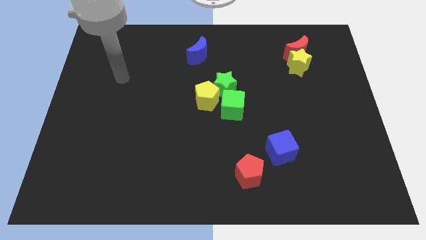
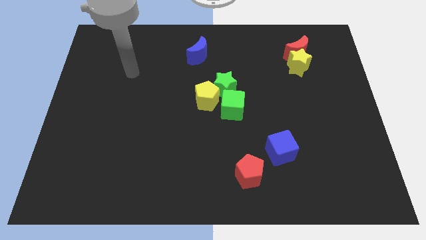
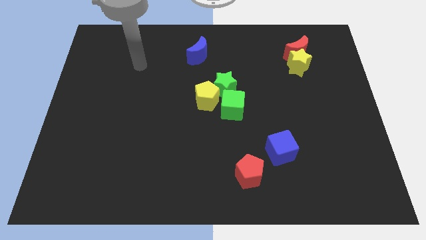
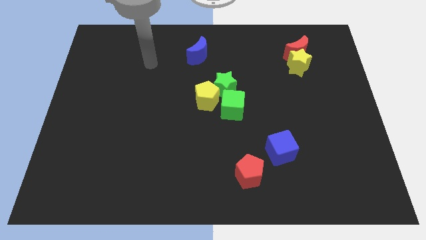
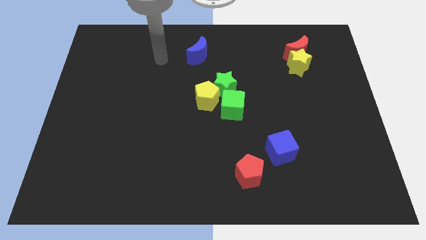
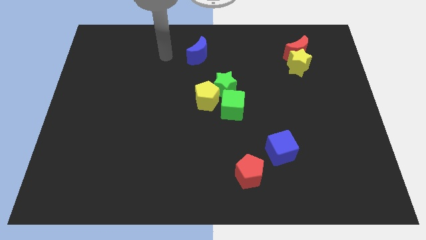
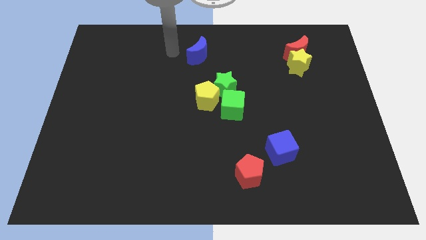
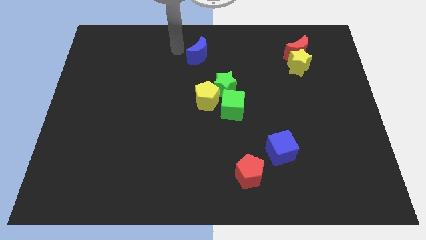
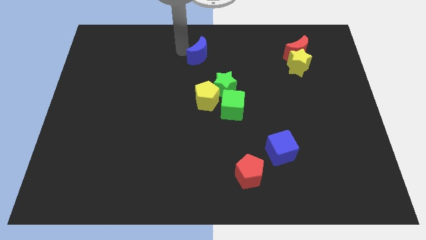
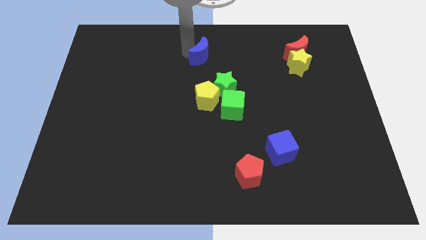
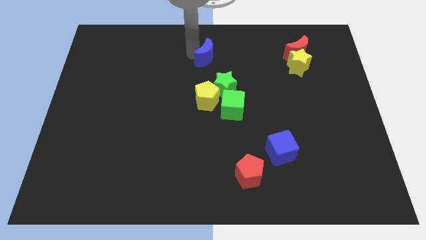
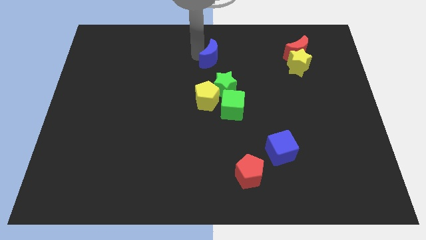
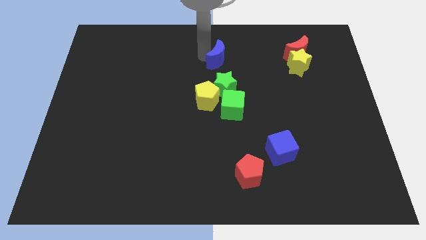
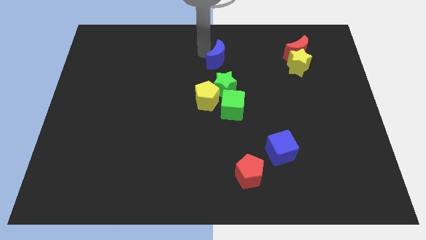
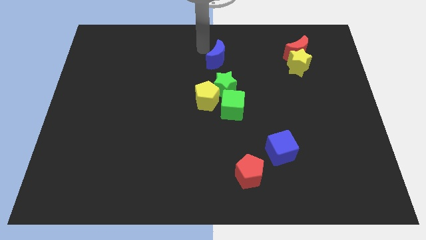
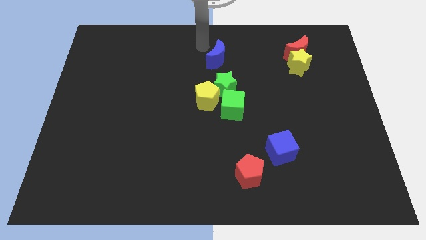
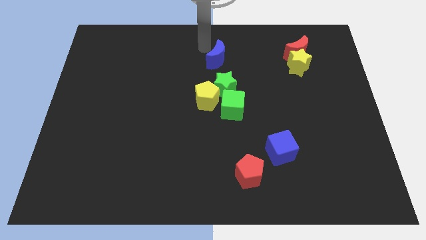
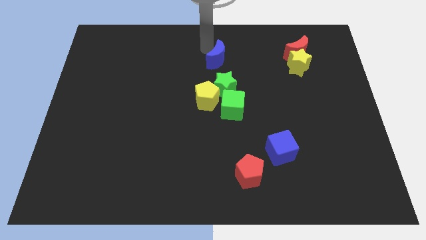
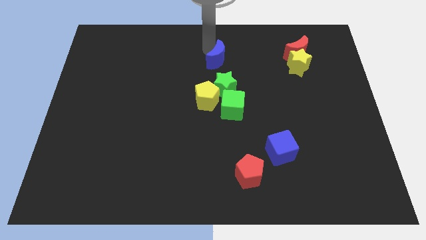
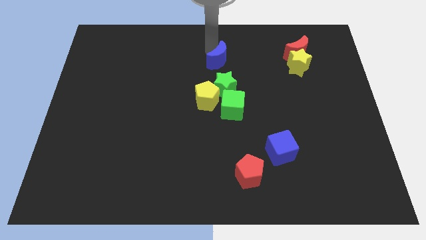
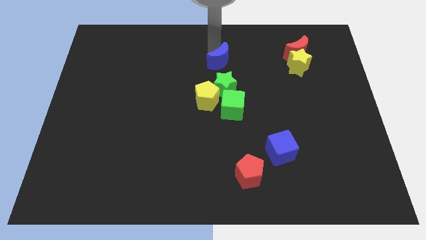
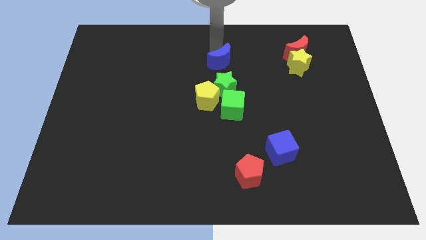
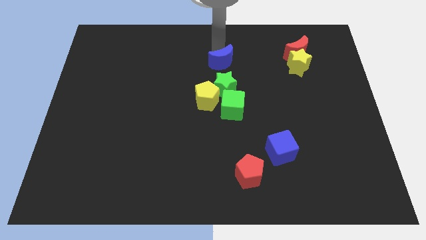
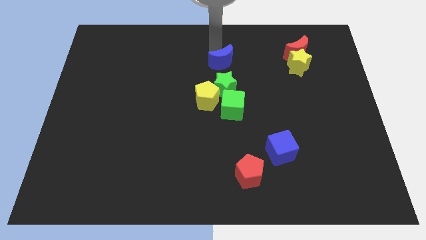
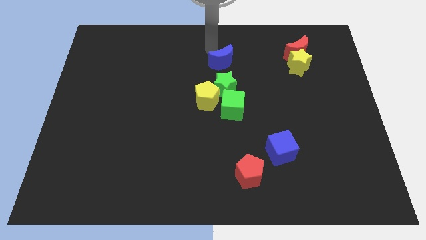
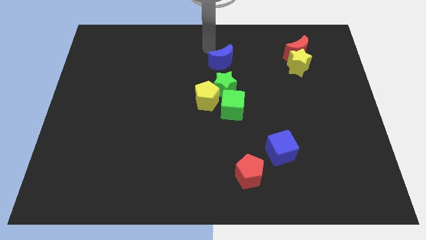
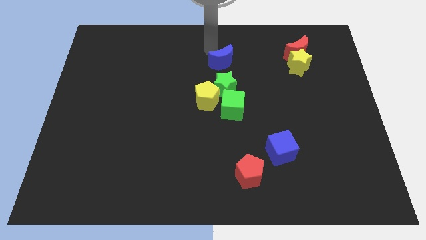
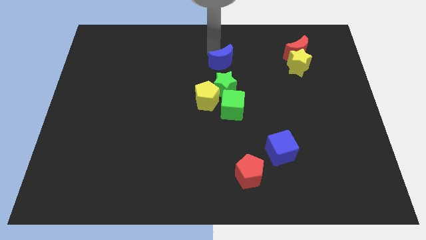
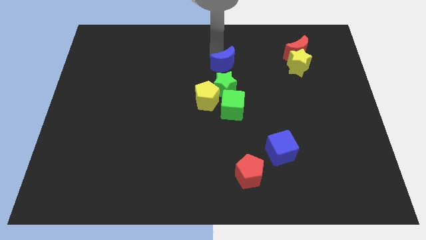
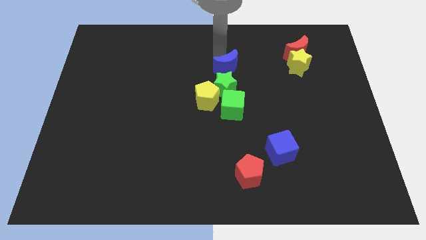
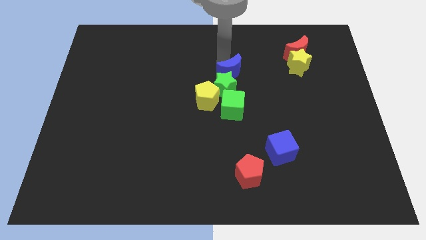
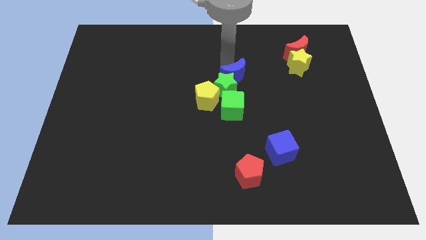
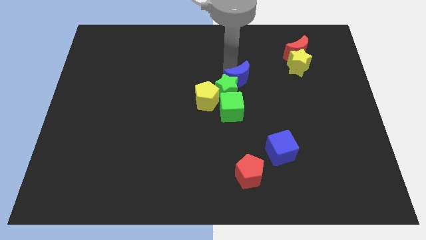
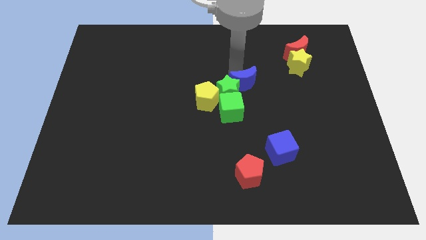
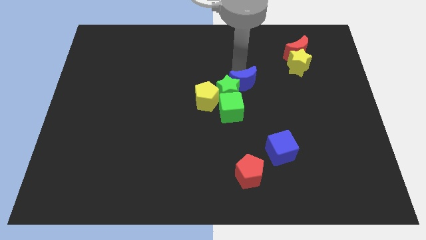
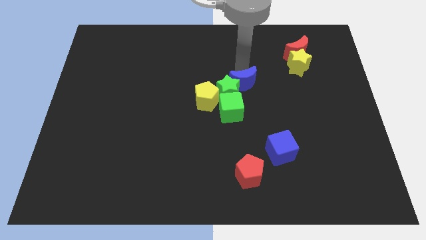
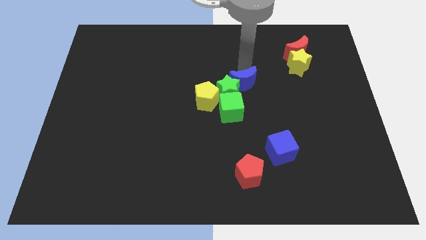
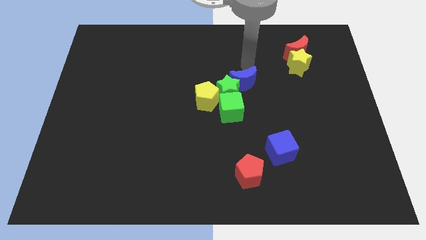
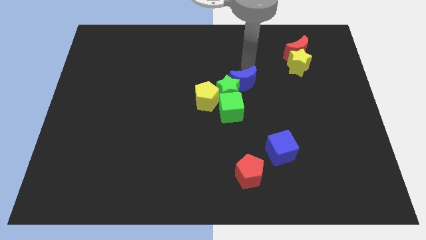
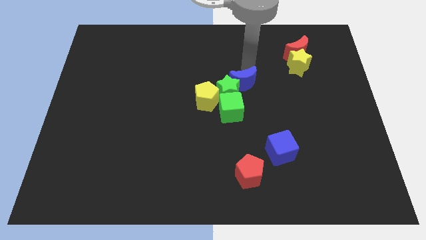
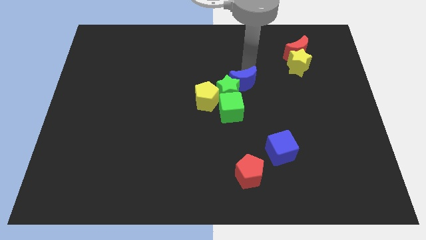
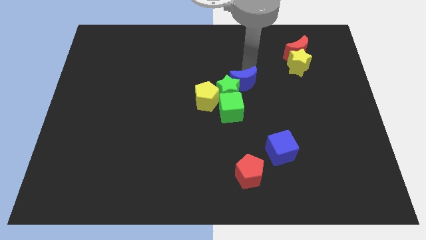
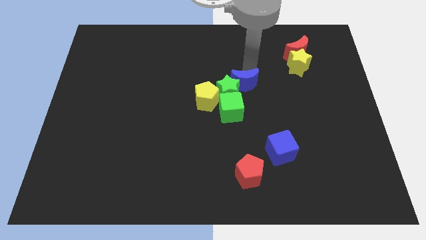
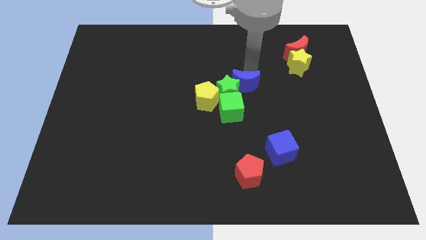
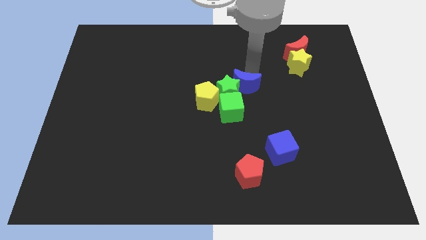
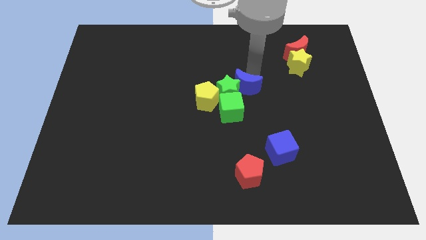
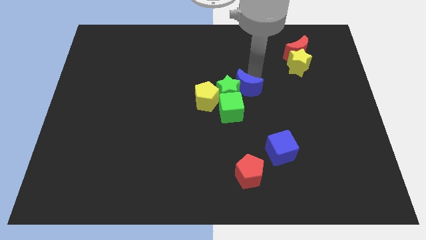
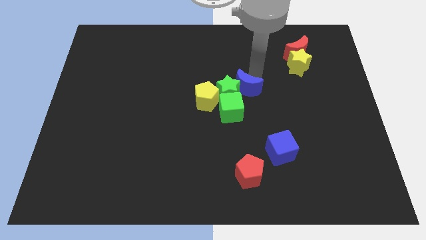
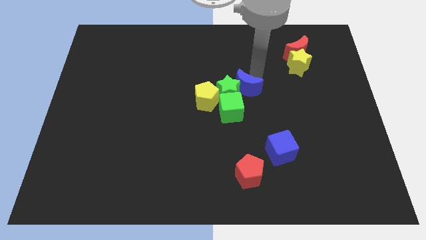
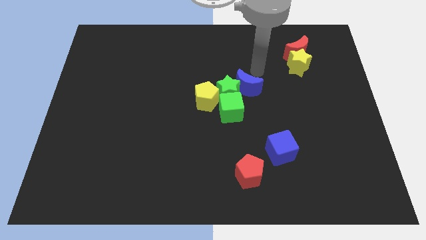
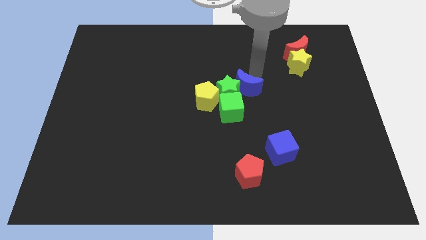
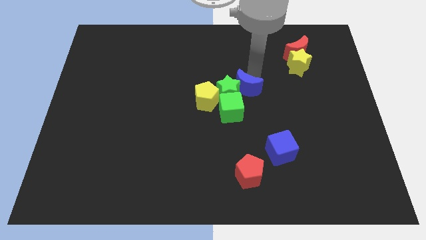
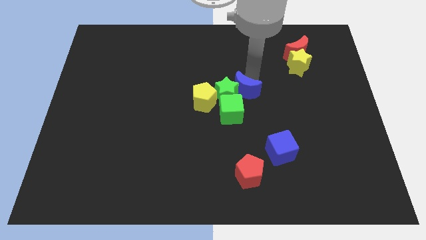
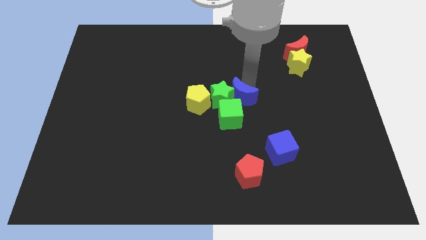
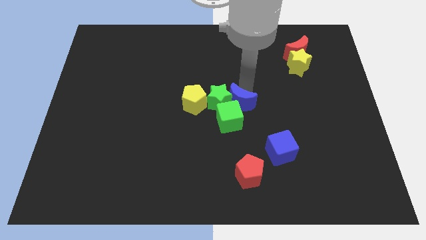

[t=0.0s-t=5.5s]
slide the blue moon close to the green cube

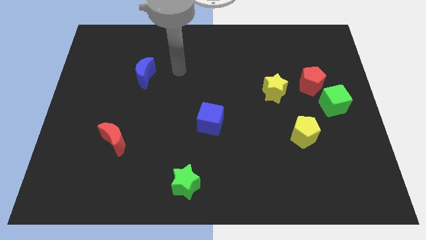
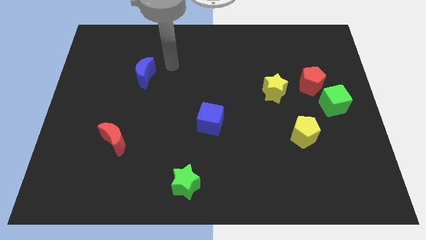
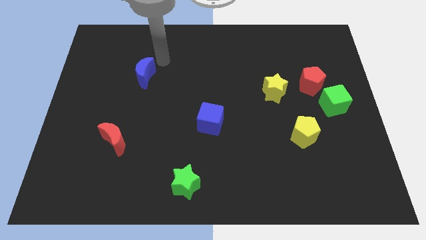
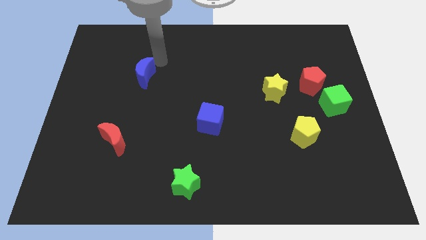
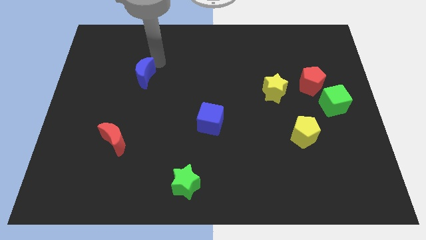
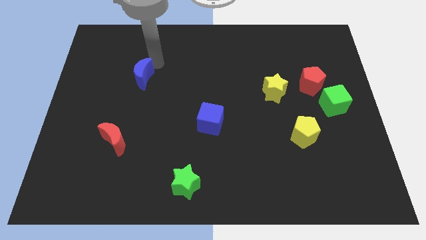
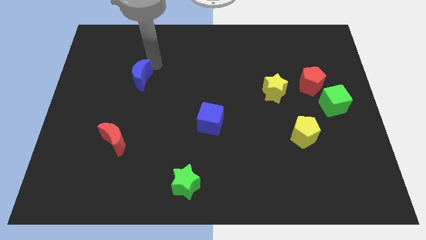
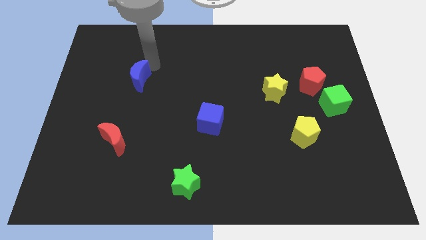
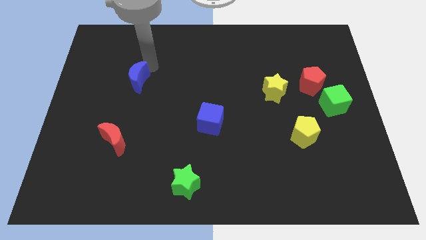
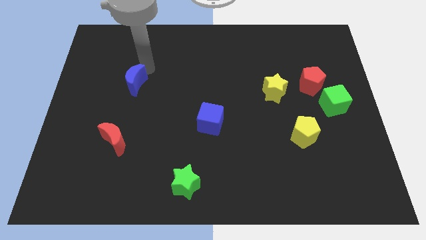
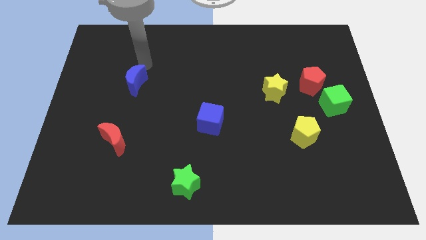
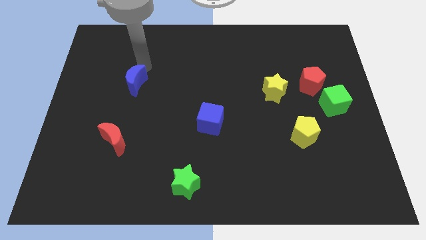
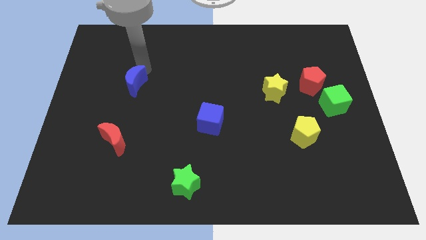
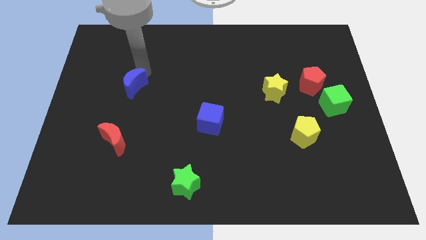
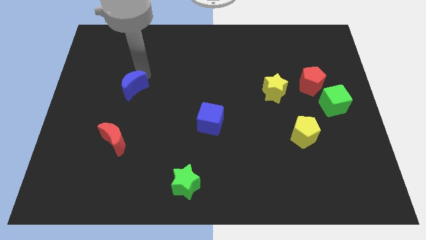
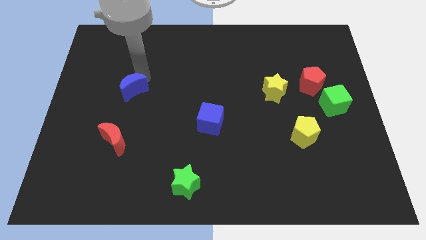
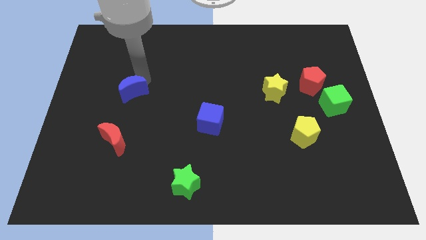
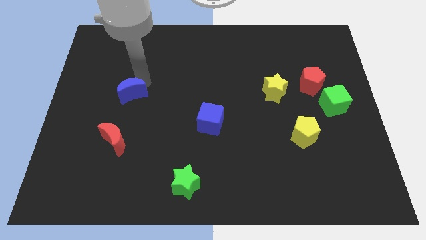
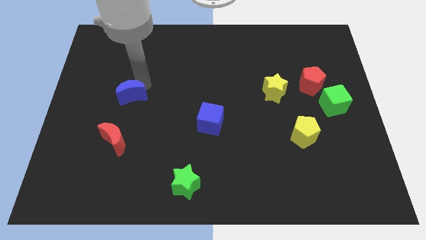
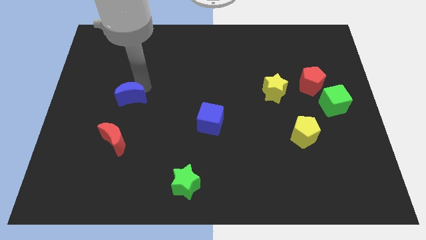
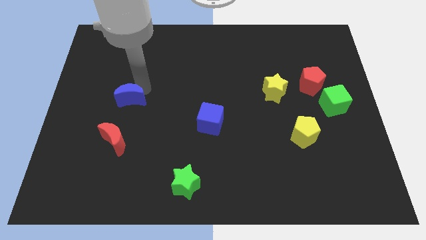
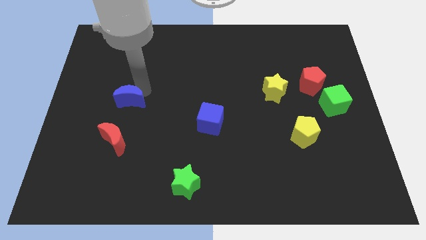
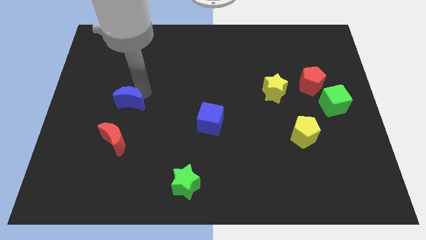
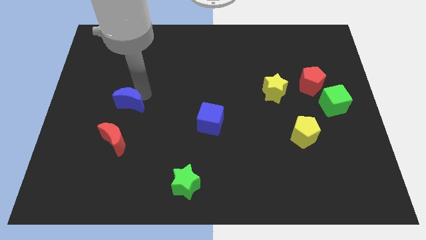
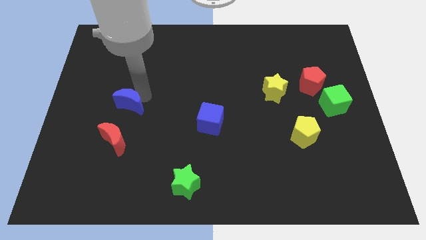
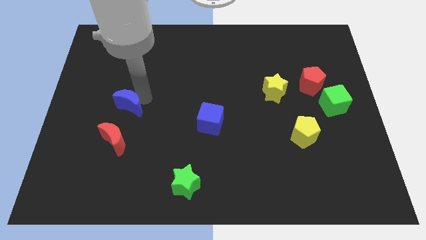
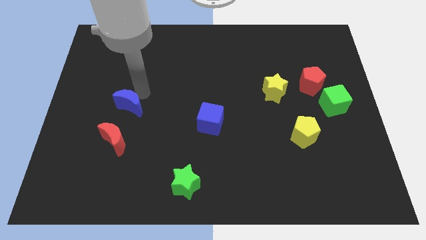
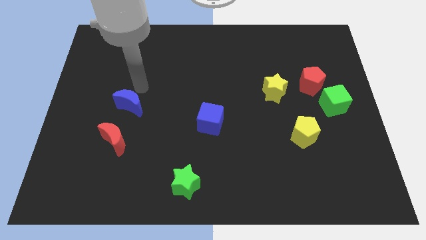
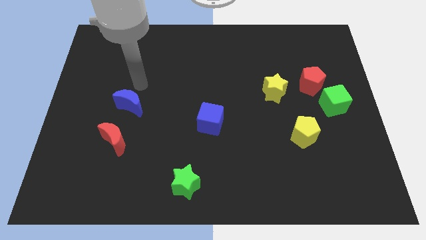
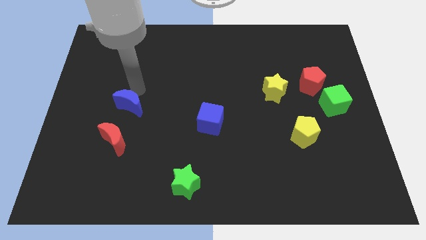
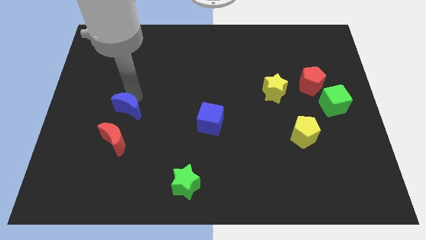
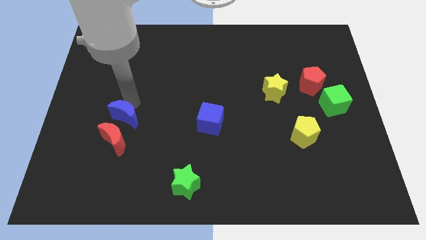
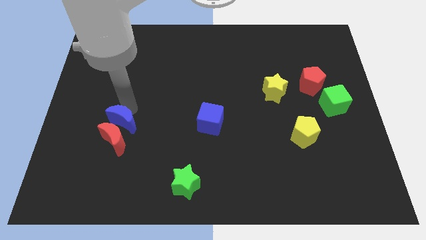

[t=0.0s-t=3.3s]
put the blue moon towards the red moon
